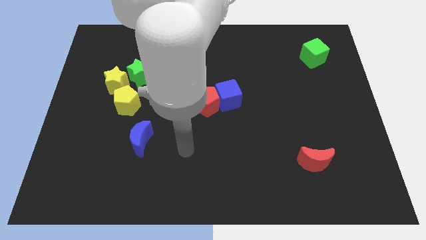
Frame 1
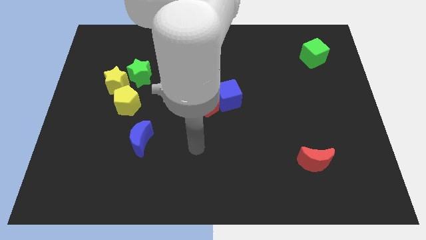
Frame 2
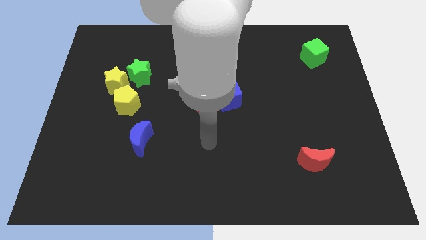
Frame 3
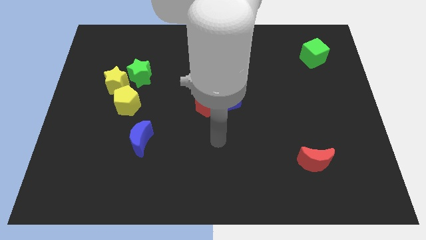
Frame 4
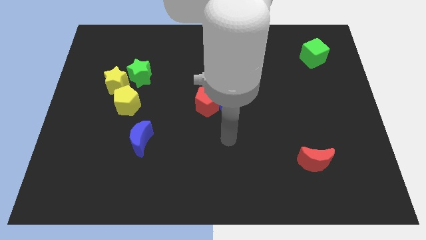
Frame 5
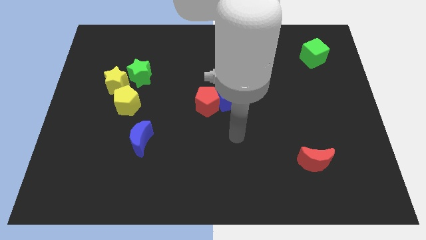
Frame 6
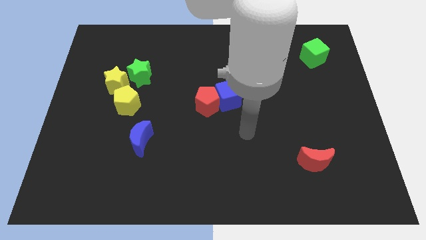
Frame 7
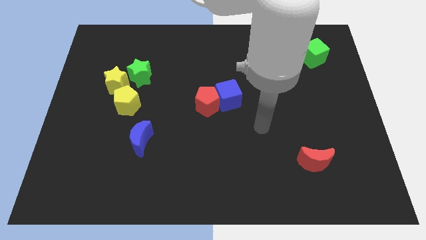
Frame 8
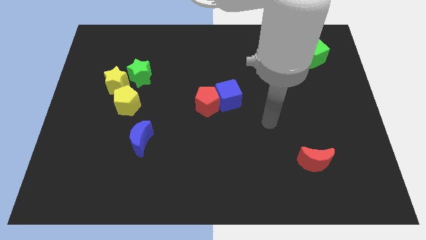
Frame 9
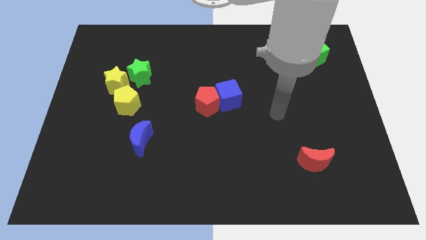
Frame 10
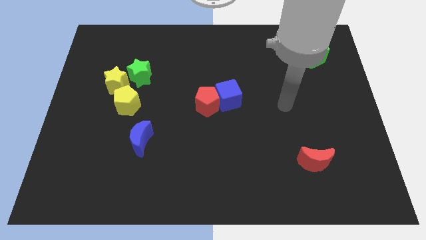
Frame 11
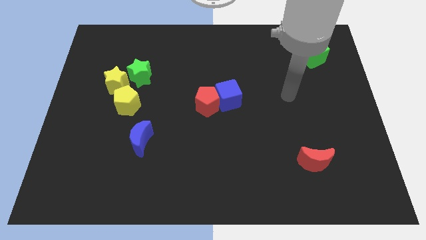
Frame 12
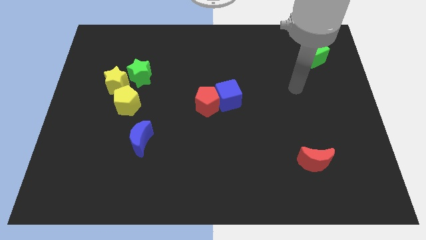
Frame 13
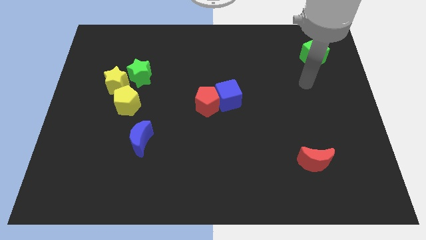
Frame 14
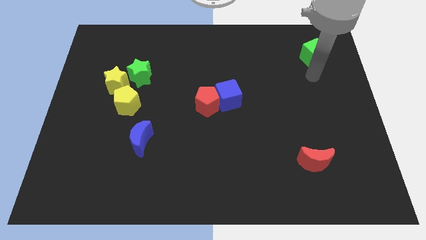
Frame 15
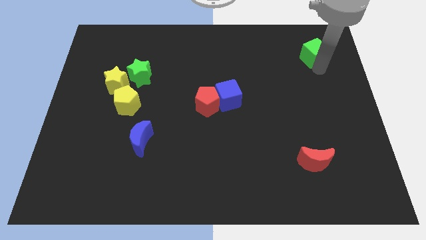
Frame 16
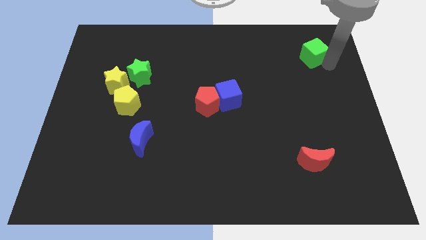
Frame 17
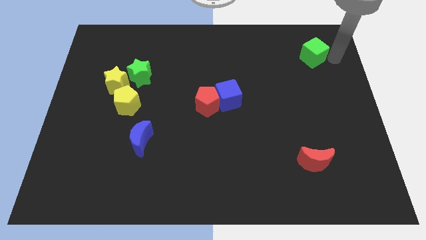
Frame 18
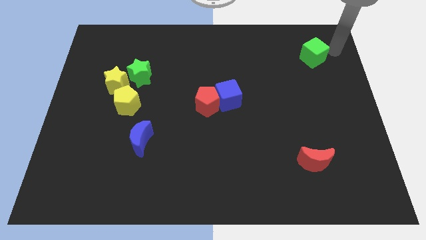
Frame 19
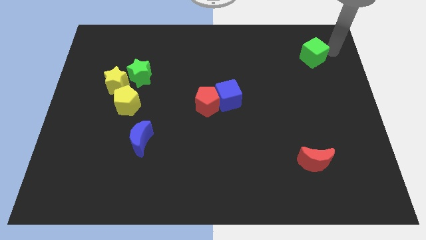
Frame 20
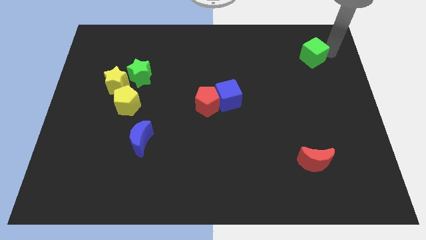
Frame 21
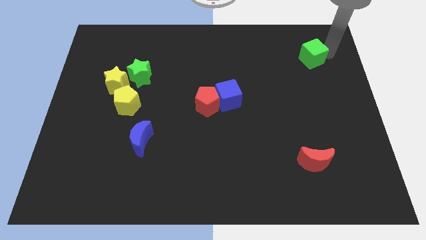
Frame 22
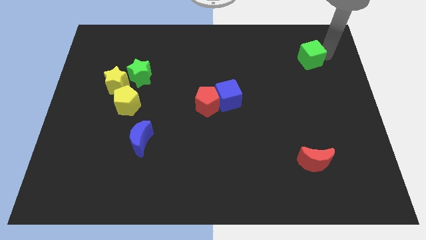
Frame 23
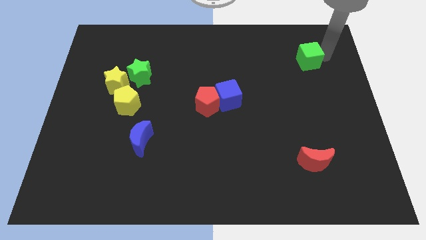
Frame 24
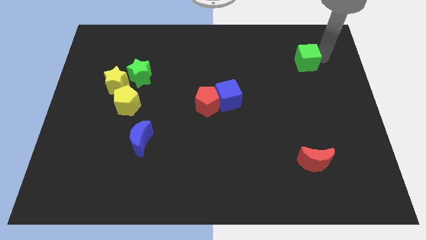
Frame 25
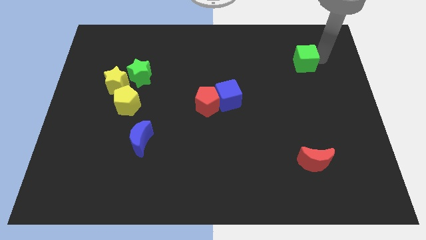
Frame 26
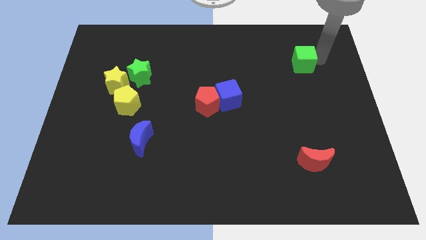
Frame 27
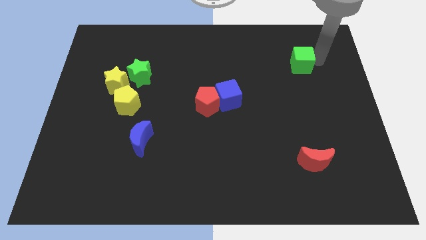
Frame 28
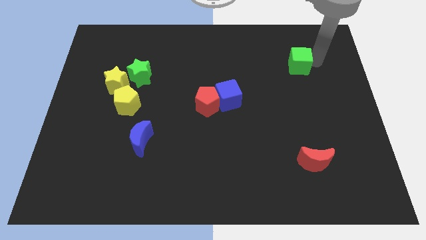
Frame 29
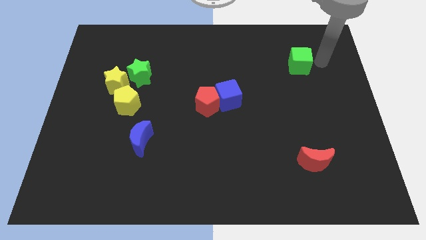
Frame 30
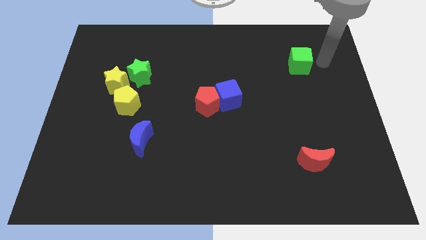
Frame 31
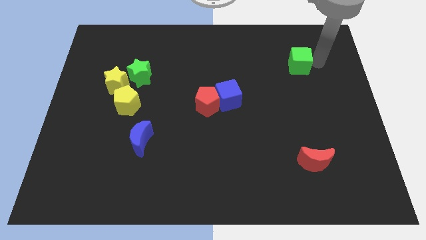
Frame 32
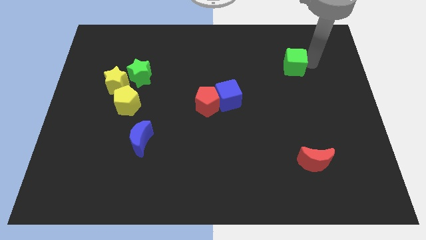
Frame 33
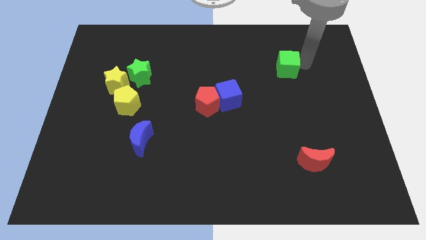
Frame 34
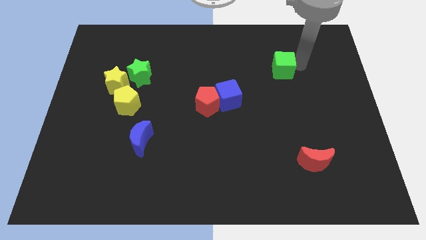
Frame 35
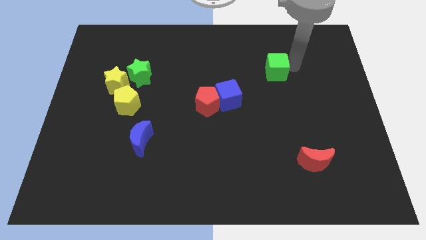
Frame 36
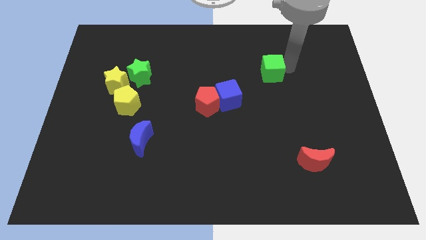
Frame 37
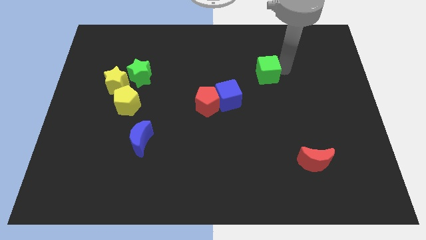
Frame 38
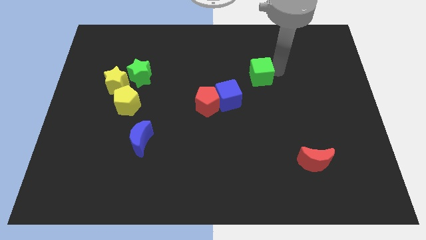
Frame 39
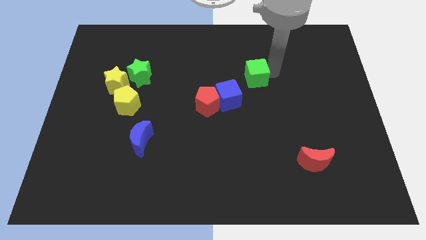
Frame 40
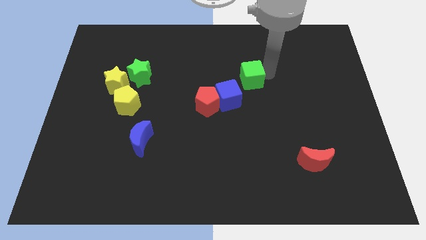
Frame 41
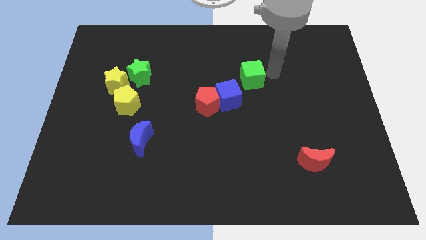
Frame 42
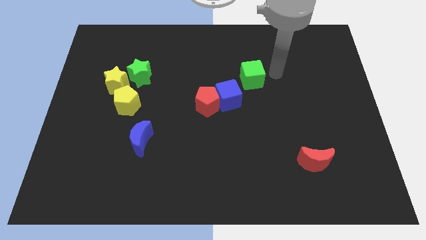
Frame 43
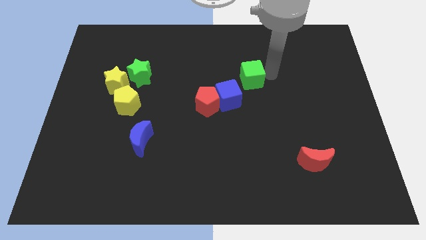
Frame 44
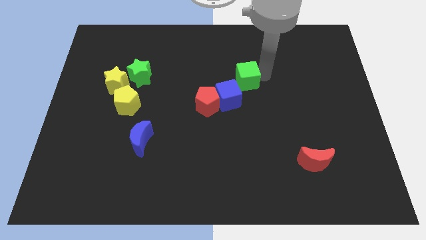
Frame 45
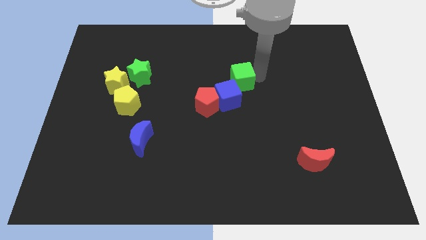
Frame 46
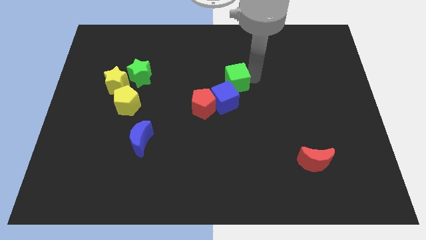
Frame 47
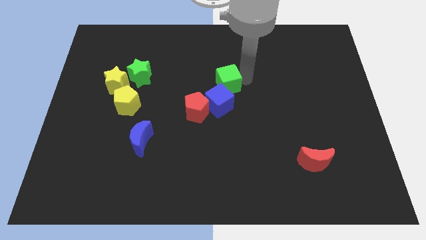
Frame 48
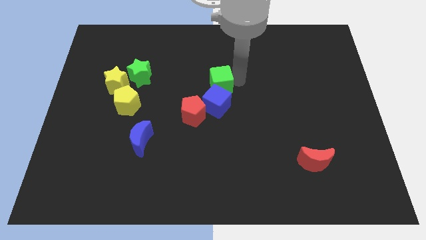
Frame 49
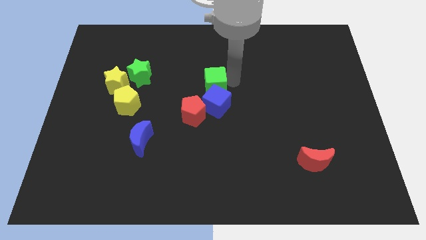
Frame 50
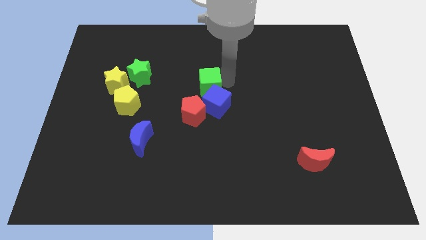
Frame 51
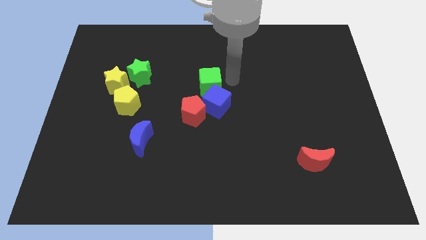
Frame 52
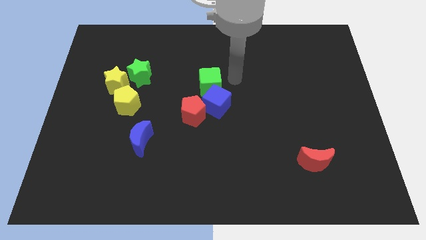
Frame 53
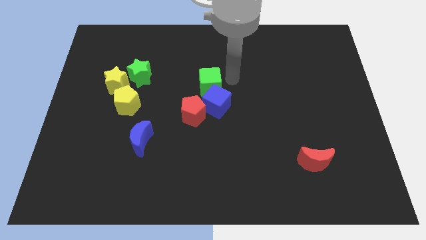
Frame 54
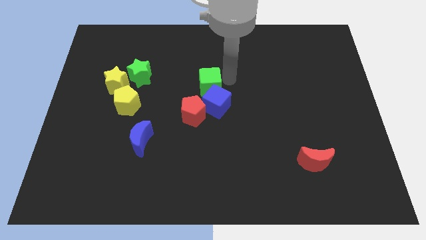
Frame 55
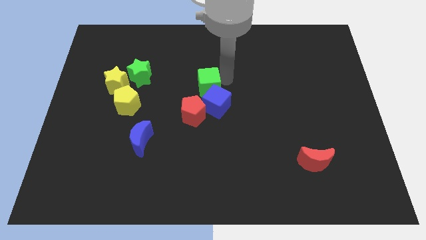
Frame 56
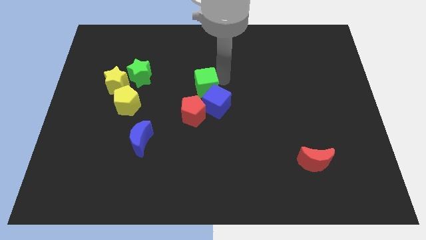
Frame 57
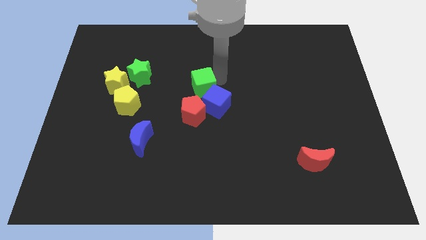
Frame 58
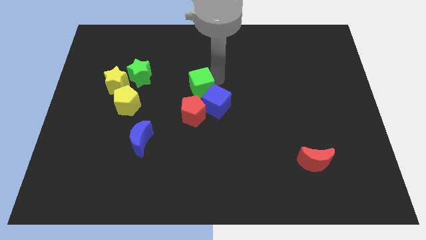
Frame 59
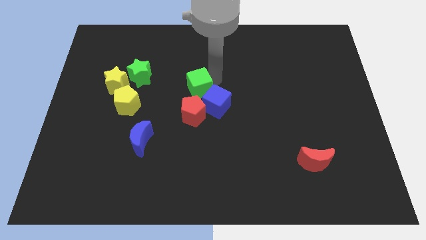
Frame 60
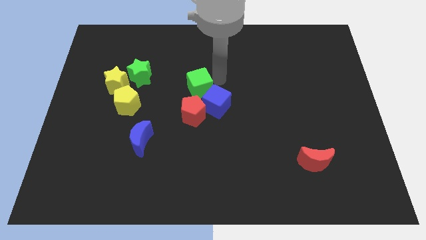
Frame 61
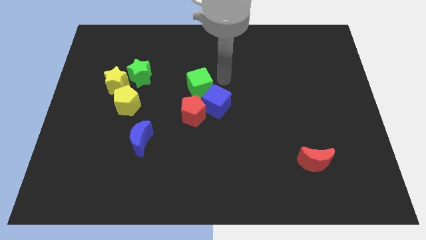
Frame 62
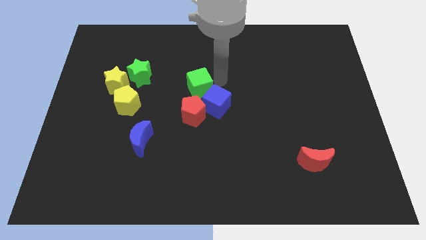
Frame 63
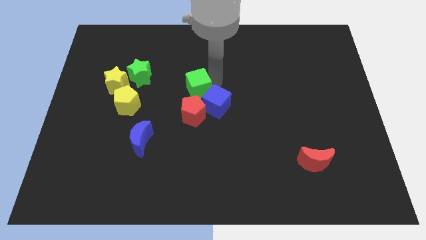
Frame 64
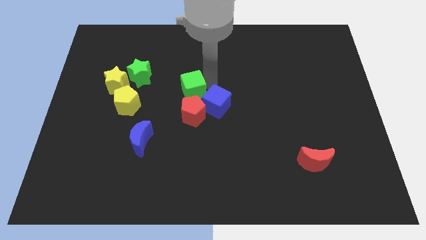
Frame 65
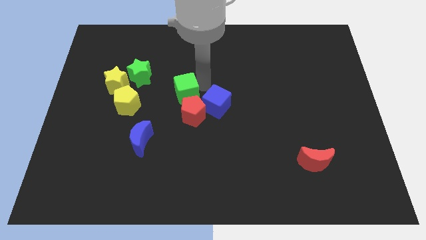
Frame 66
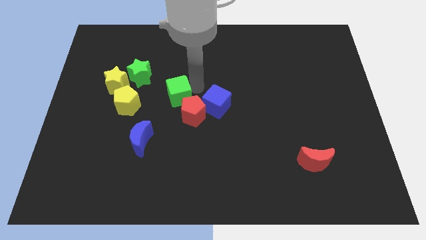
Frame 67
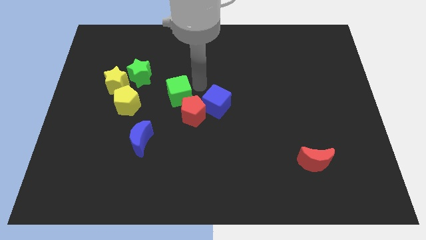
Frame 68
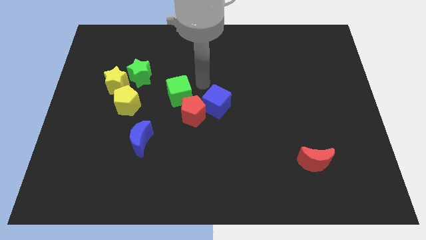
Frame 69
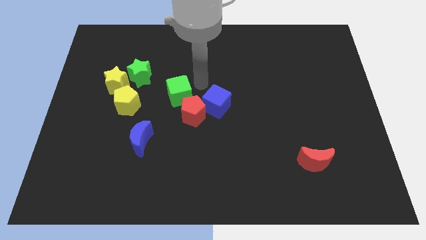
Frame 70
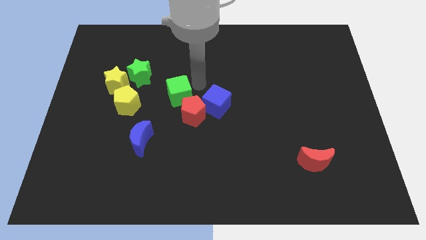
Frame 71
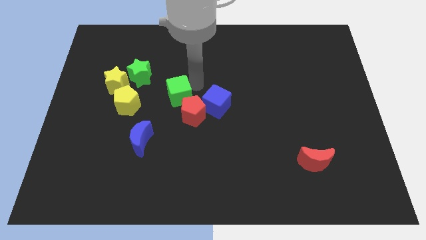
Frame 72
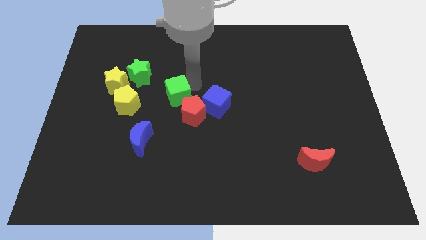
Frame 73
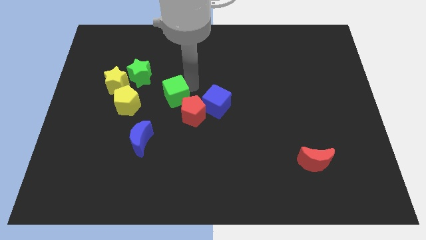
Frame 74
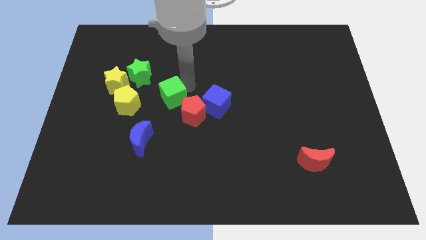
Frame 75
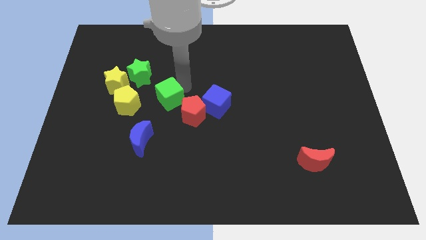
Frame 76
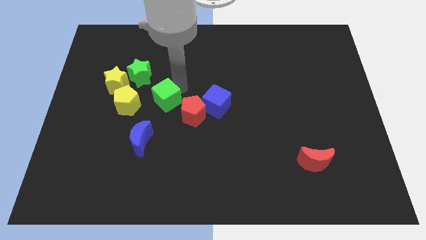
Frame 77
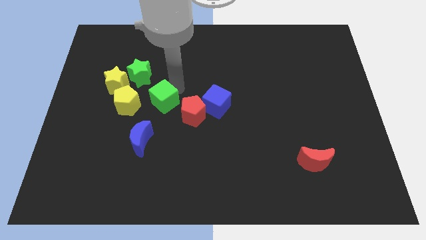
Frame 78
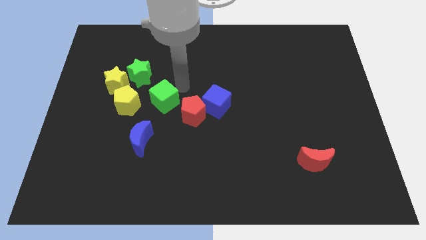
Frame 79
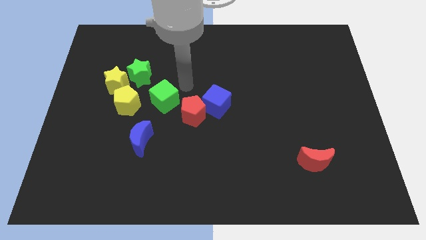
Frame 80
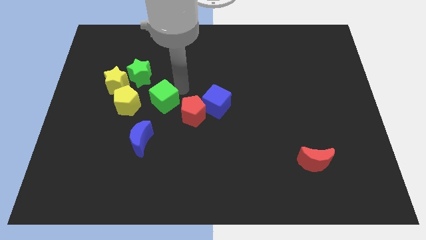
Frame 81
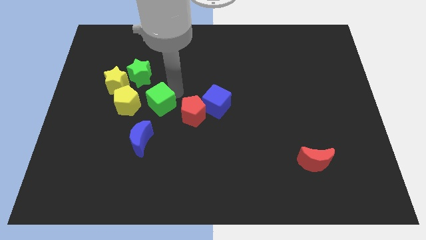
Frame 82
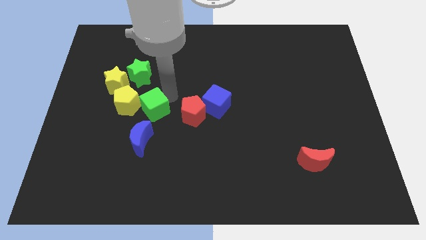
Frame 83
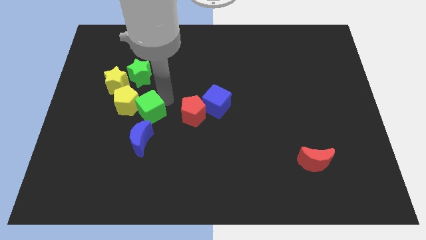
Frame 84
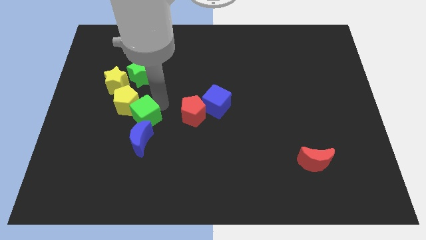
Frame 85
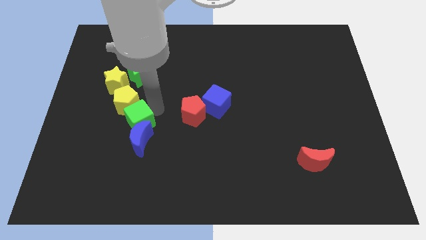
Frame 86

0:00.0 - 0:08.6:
push the green cube to the top left side of the blue moon
